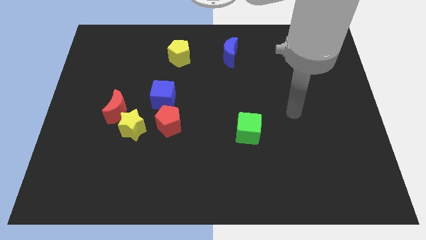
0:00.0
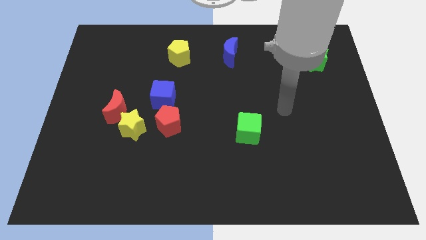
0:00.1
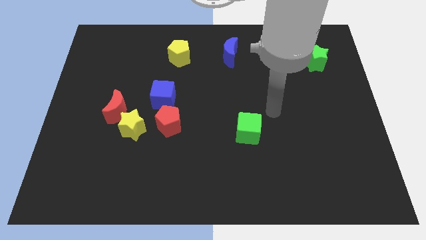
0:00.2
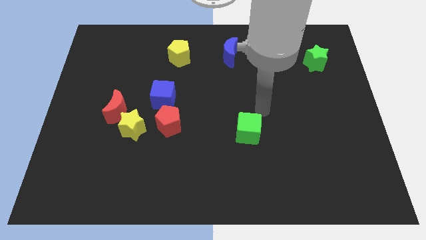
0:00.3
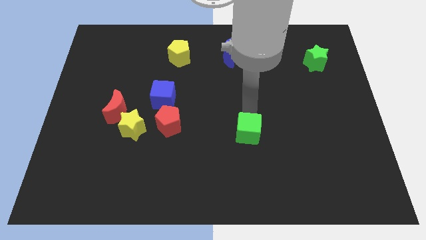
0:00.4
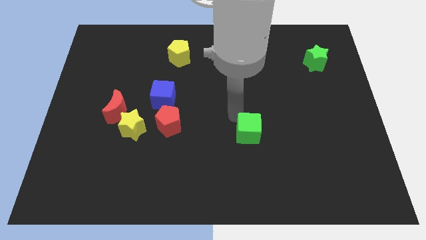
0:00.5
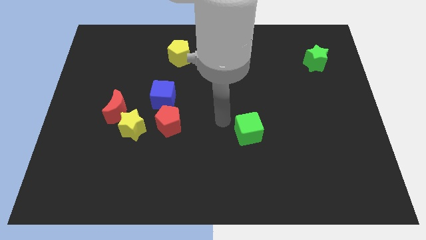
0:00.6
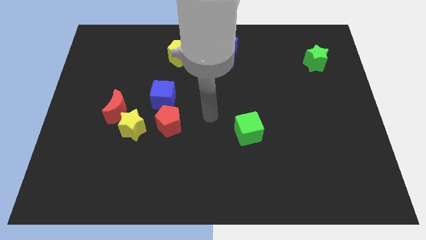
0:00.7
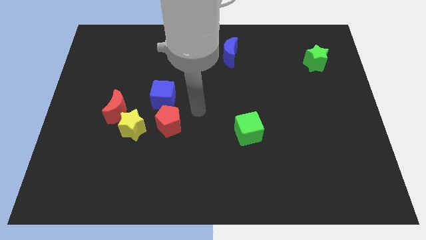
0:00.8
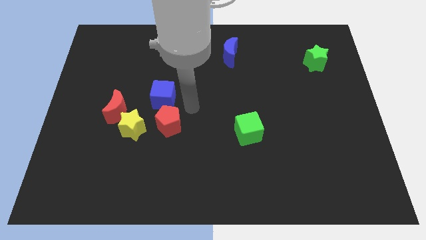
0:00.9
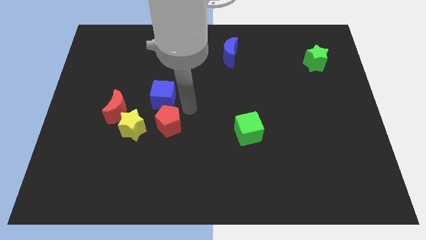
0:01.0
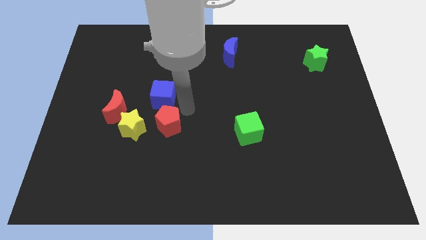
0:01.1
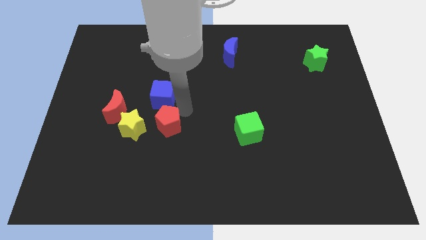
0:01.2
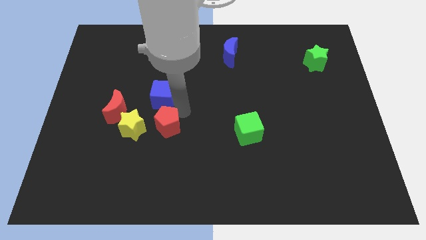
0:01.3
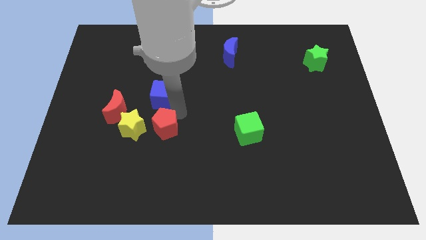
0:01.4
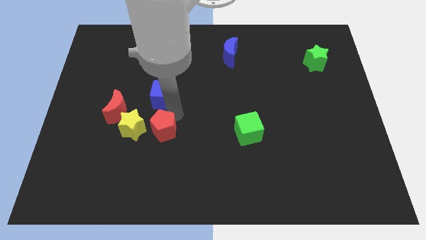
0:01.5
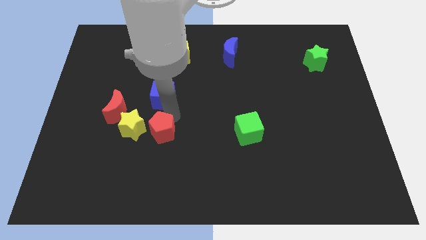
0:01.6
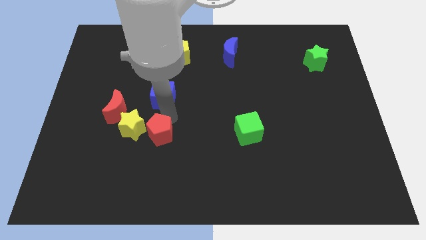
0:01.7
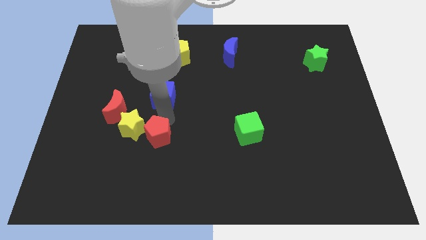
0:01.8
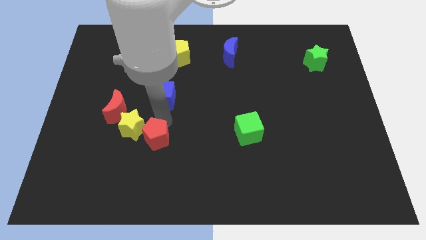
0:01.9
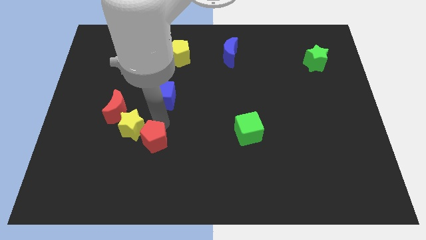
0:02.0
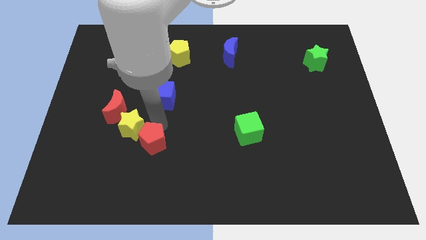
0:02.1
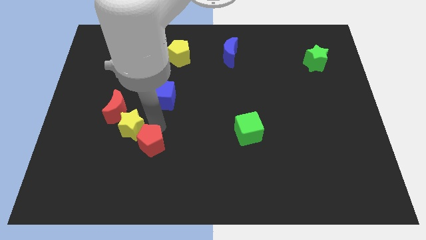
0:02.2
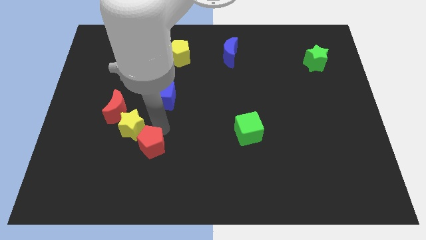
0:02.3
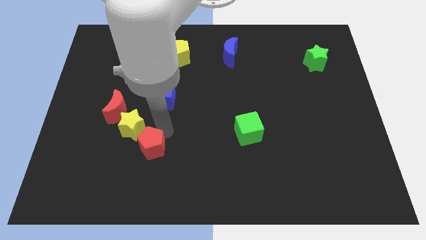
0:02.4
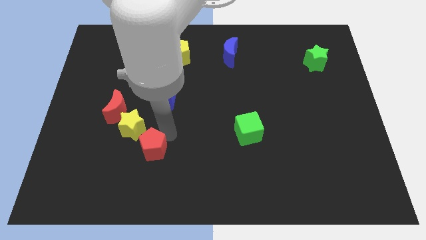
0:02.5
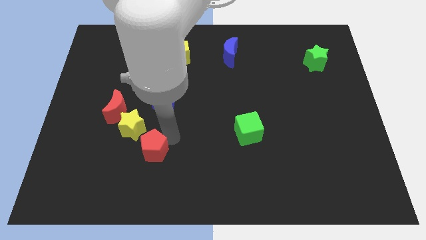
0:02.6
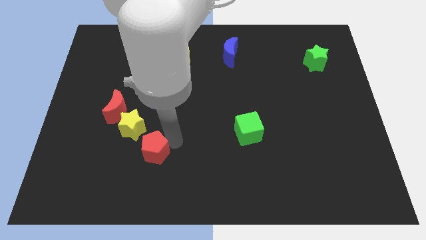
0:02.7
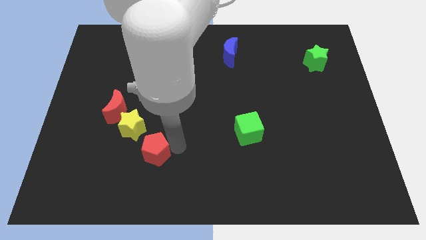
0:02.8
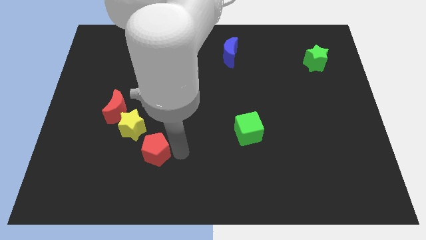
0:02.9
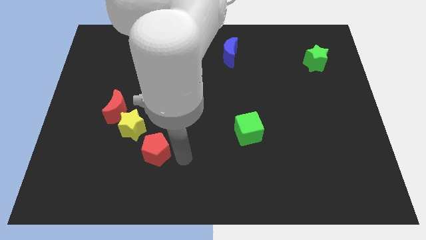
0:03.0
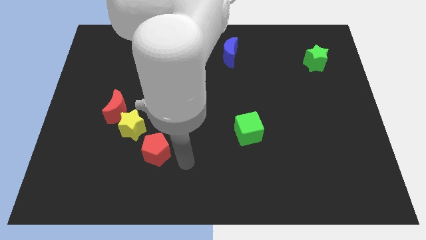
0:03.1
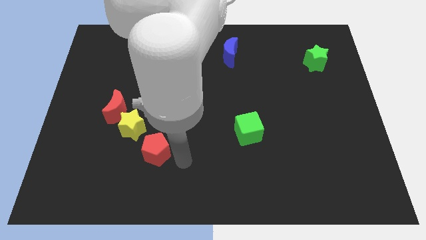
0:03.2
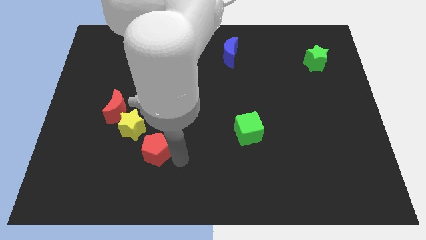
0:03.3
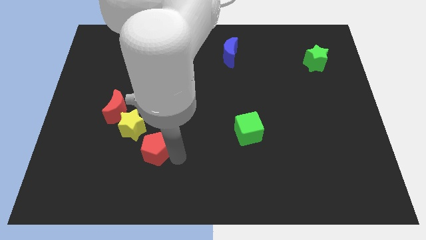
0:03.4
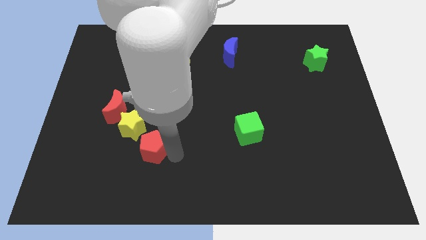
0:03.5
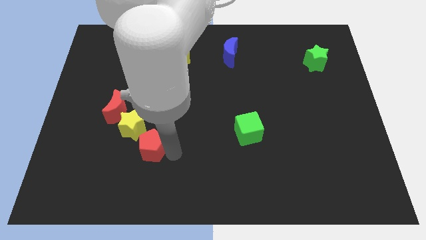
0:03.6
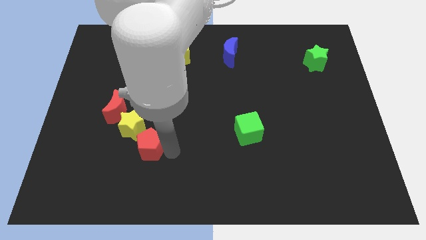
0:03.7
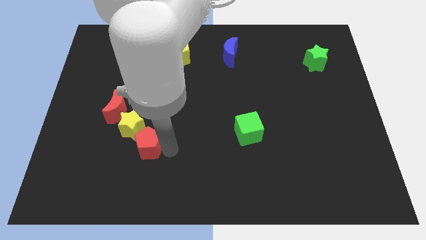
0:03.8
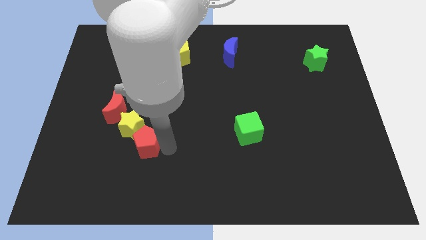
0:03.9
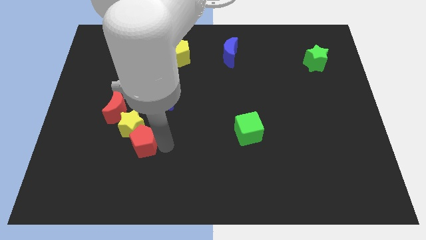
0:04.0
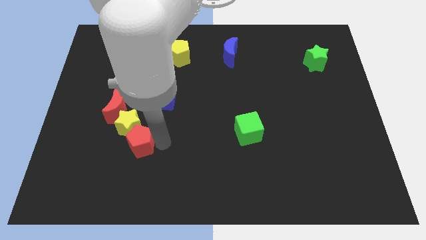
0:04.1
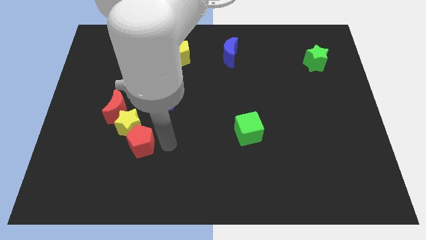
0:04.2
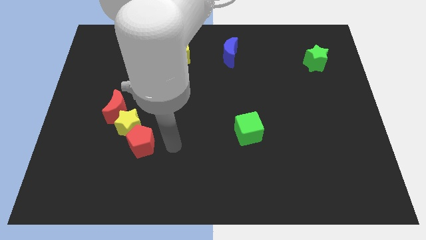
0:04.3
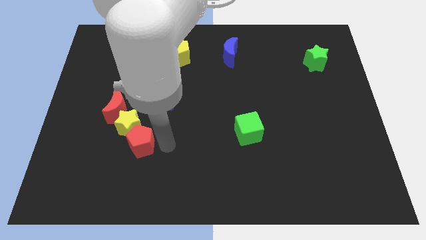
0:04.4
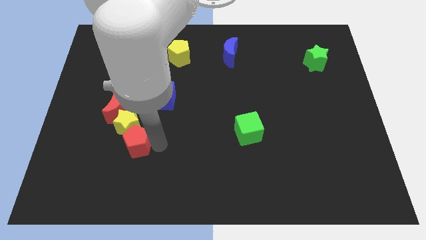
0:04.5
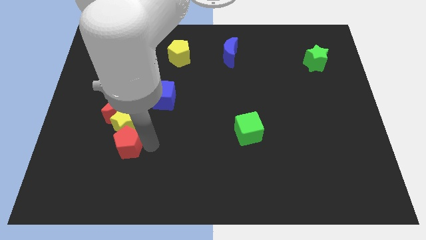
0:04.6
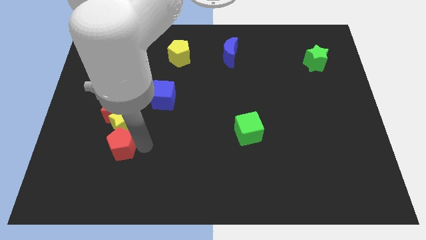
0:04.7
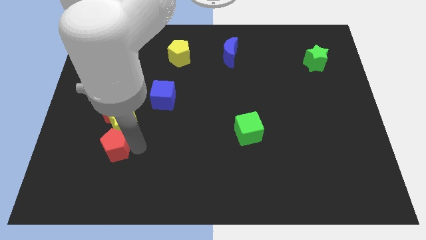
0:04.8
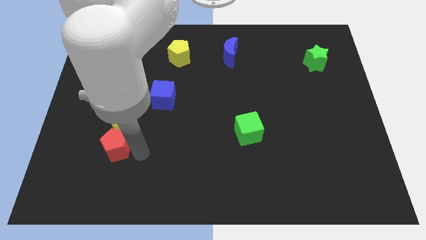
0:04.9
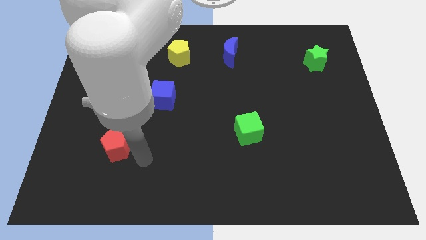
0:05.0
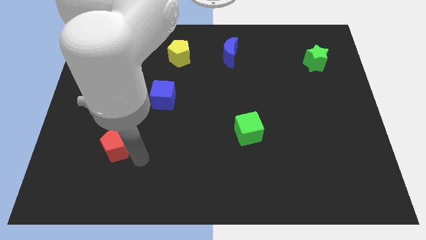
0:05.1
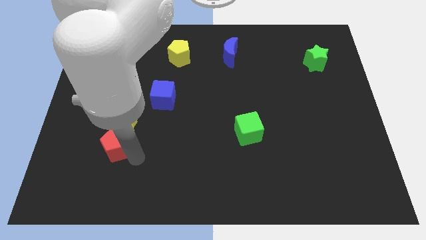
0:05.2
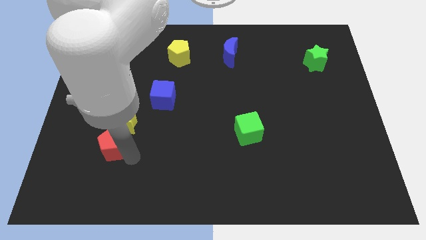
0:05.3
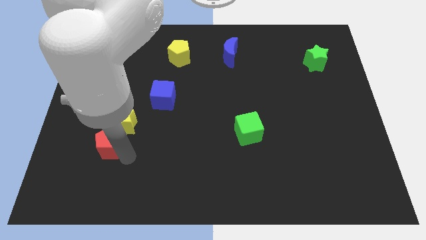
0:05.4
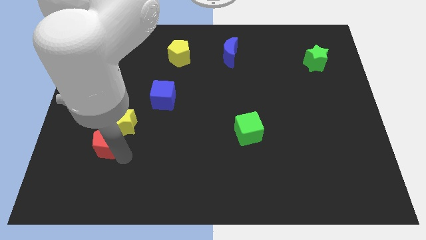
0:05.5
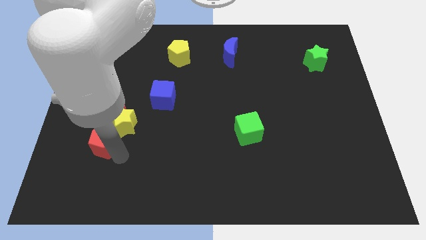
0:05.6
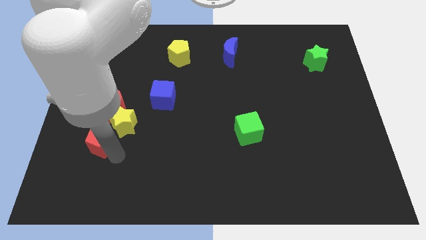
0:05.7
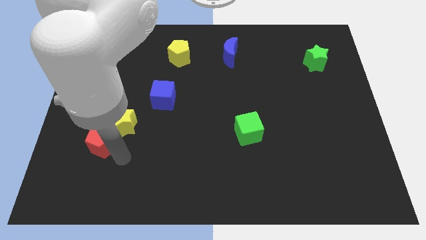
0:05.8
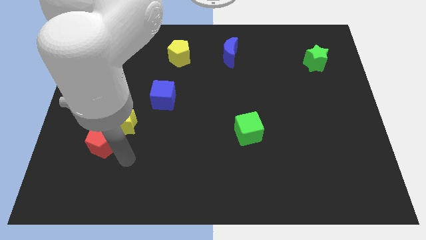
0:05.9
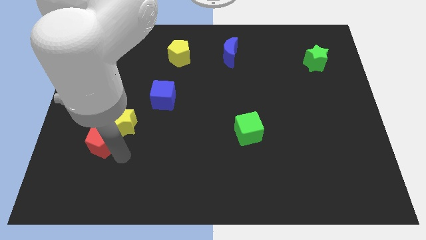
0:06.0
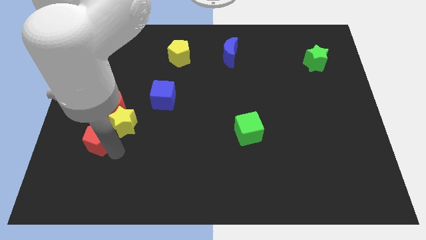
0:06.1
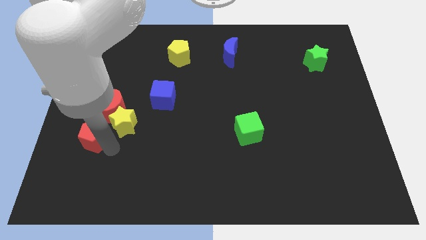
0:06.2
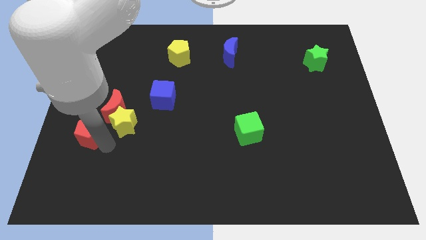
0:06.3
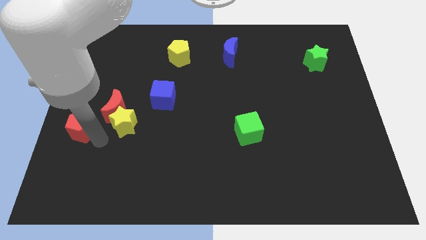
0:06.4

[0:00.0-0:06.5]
push the red pentagon to the left side

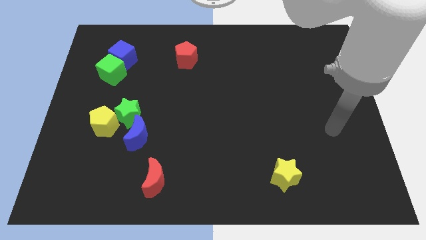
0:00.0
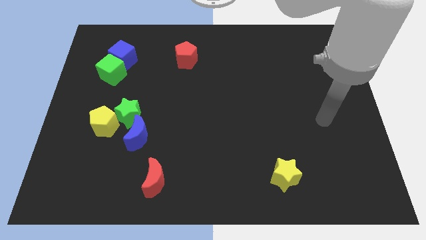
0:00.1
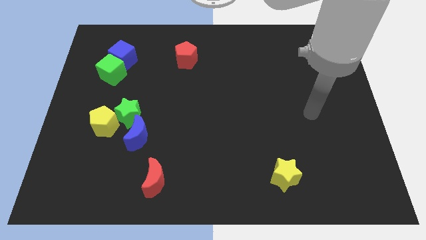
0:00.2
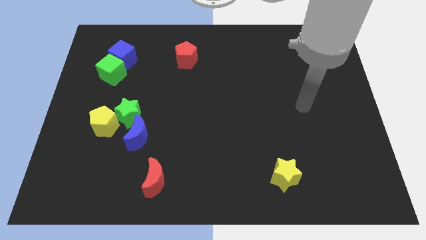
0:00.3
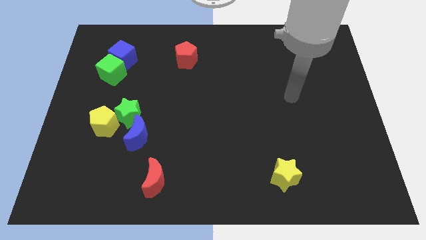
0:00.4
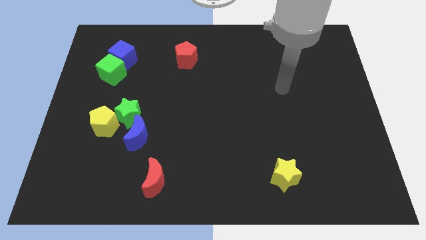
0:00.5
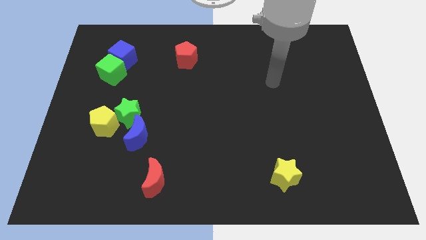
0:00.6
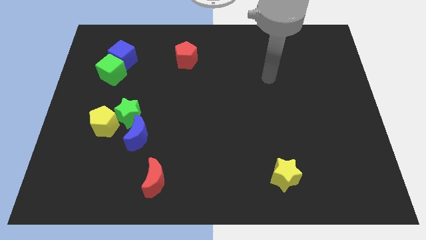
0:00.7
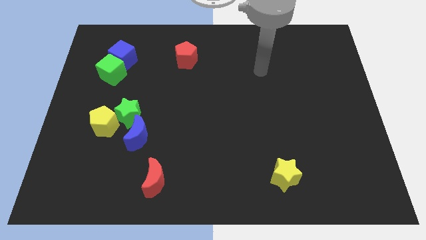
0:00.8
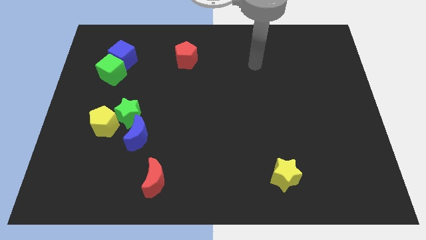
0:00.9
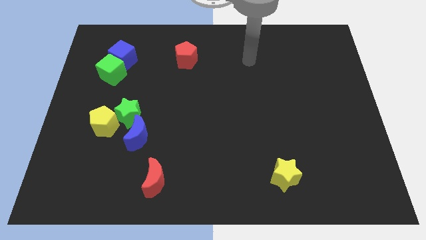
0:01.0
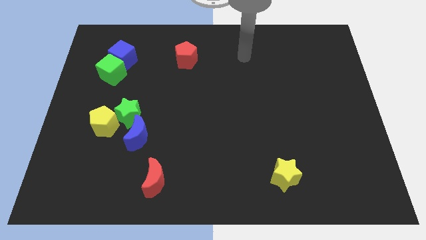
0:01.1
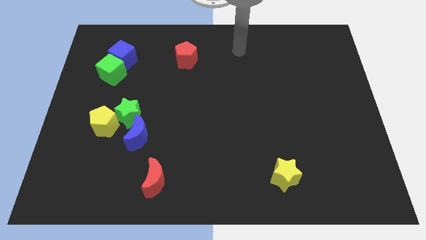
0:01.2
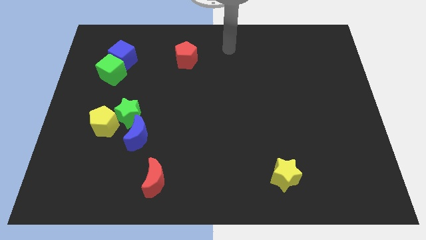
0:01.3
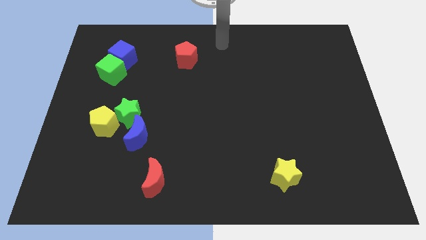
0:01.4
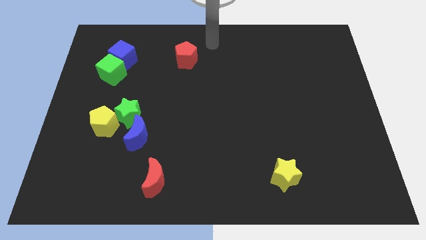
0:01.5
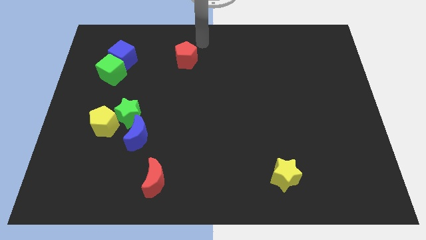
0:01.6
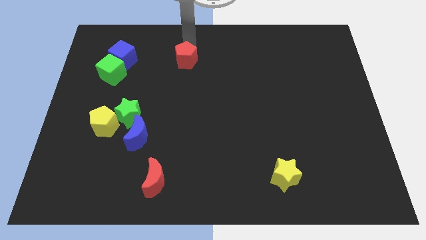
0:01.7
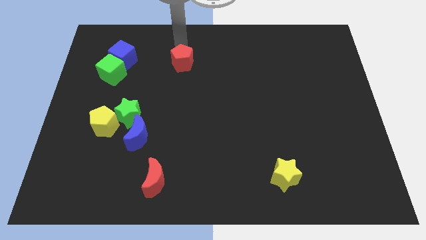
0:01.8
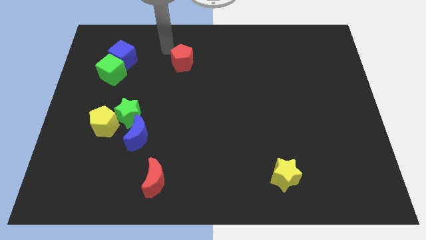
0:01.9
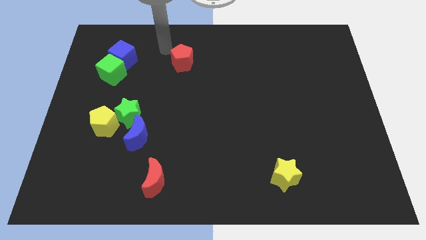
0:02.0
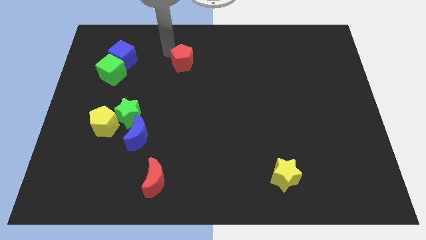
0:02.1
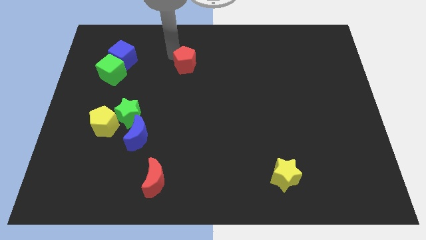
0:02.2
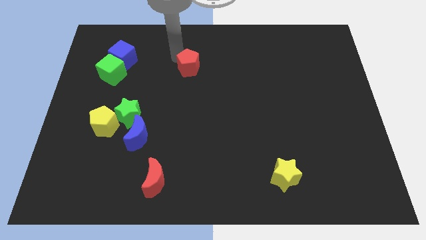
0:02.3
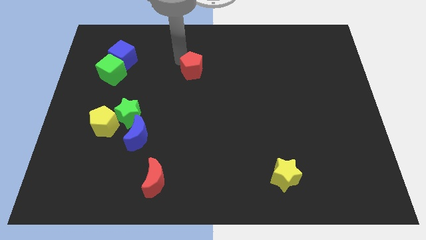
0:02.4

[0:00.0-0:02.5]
slide the red pentagon to the center of the board
